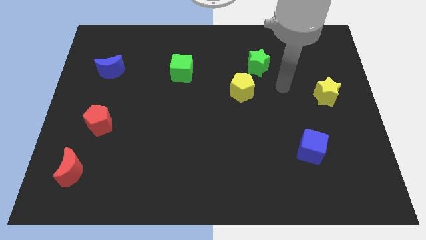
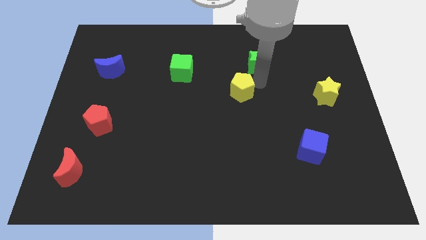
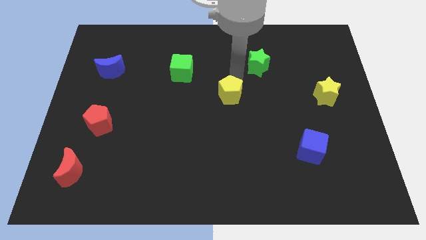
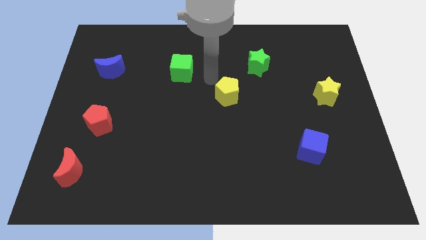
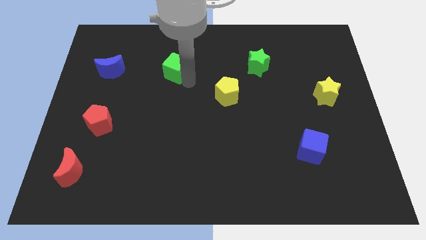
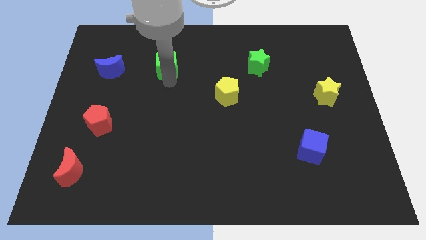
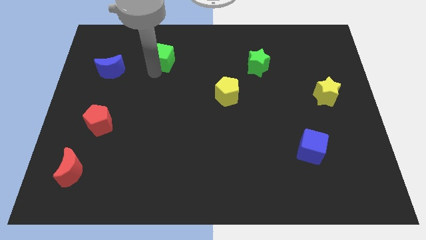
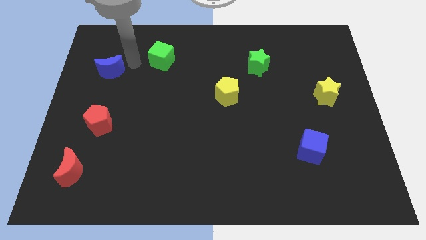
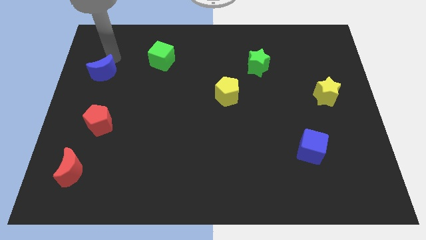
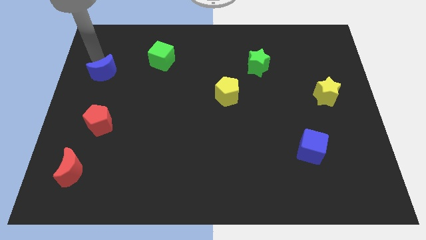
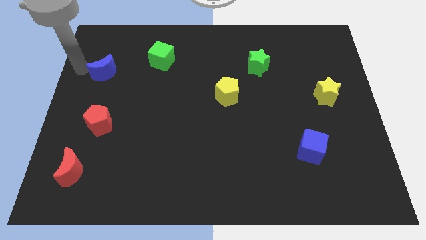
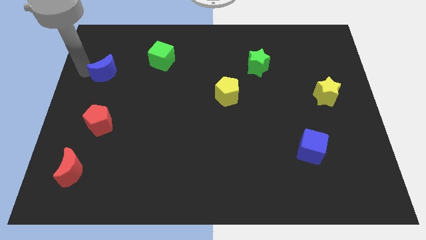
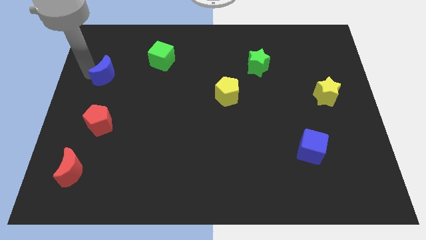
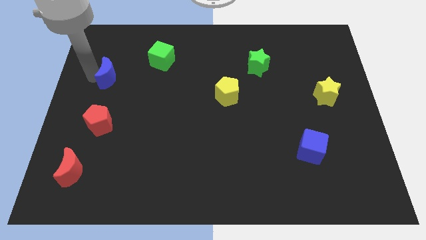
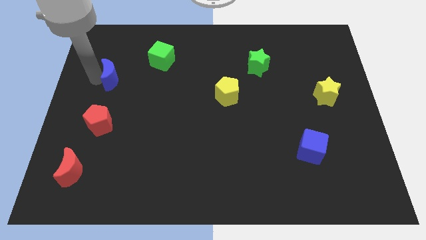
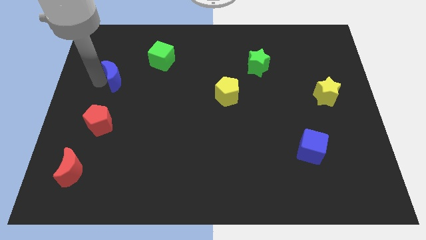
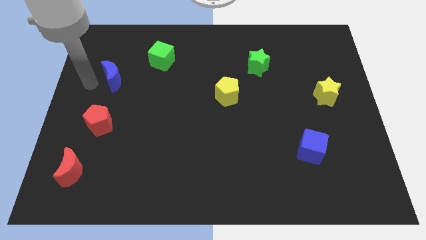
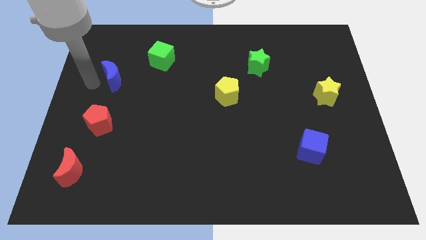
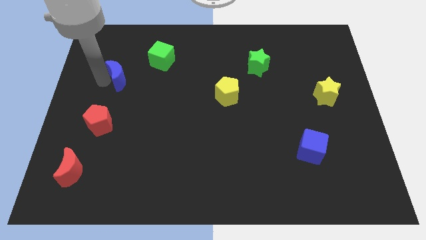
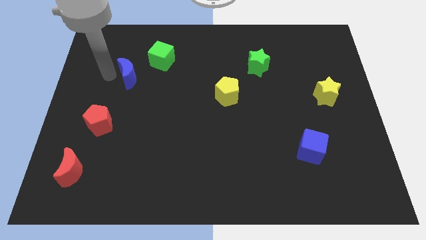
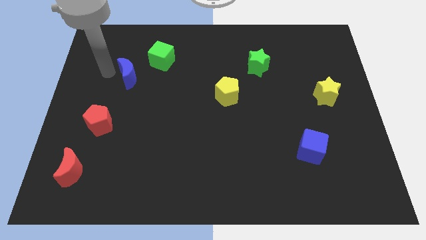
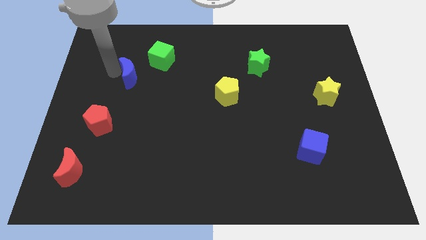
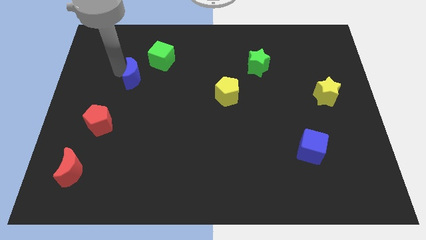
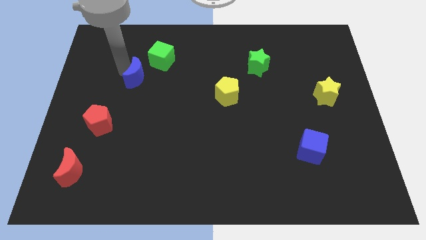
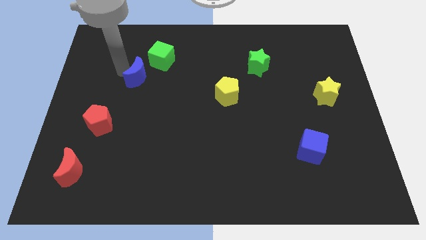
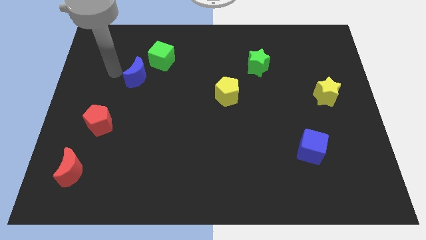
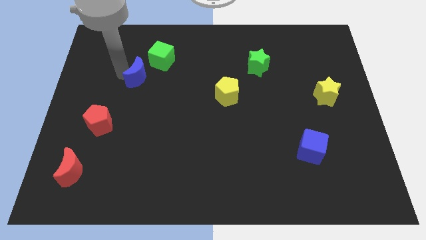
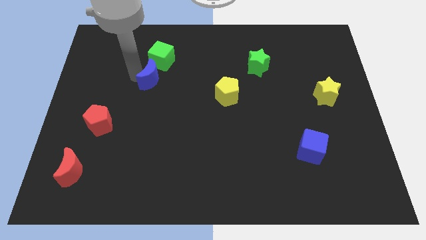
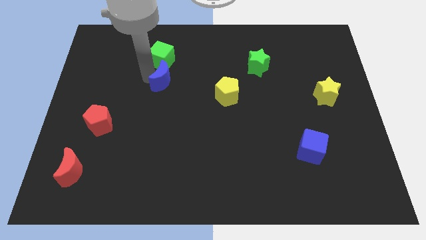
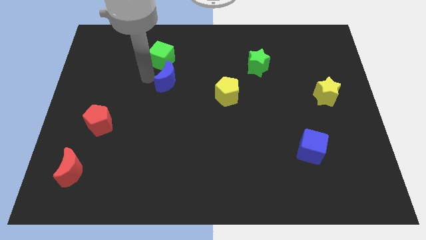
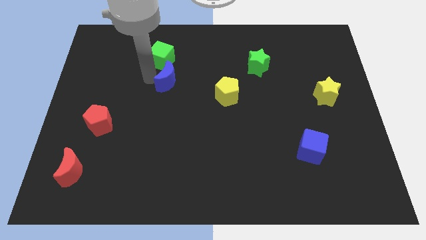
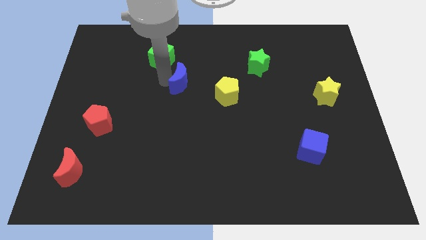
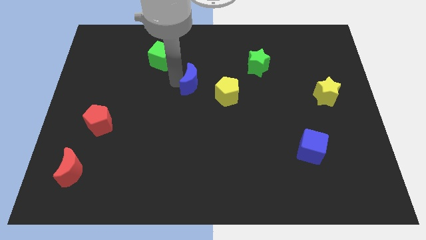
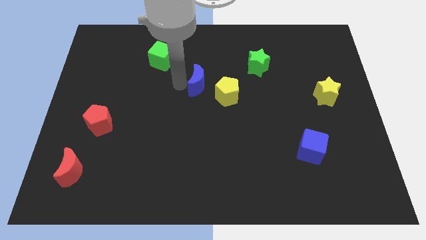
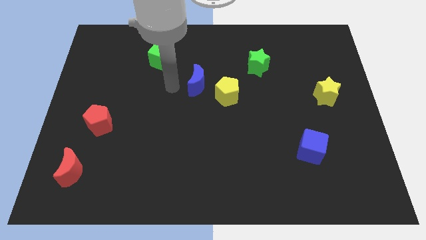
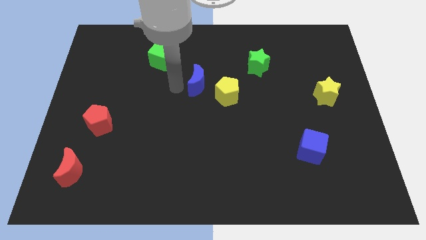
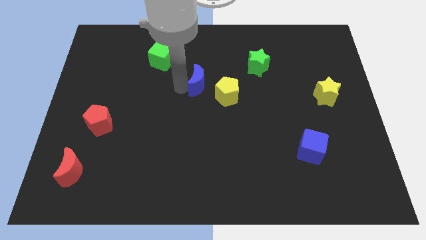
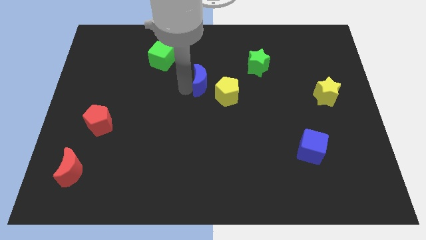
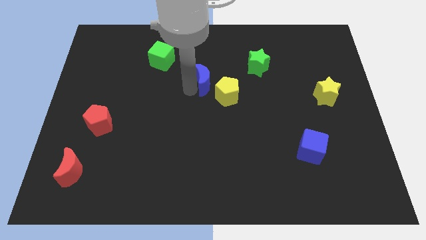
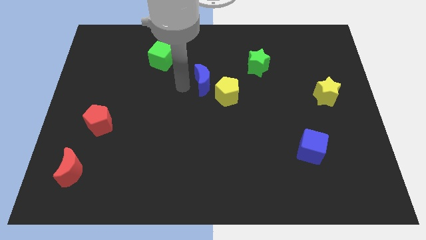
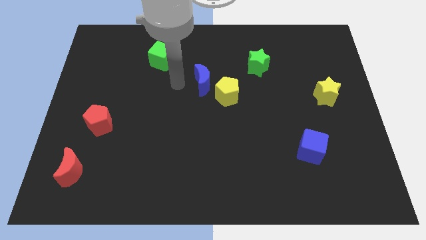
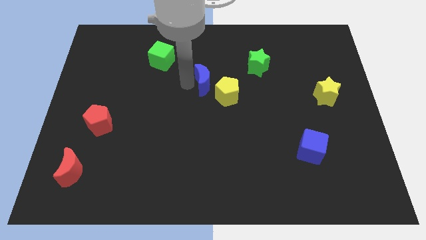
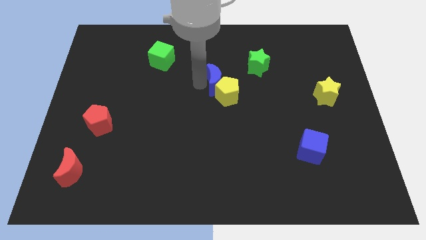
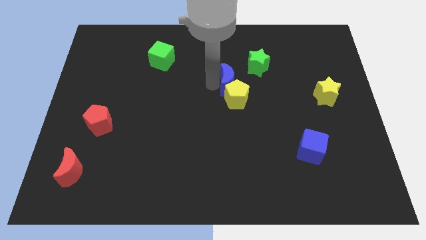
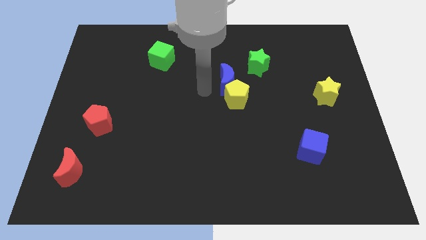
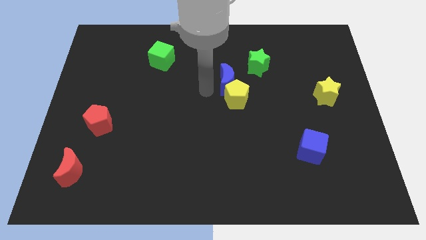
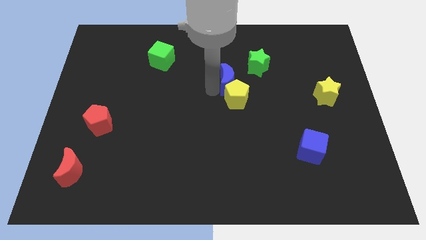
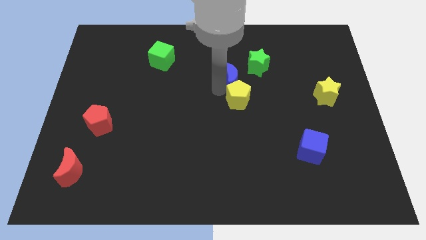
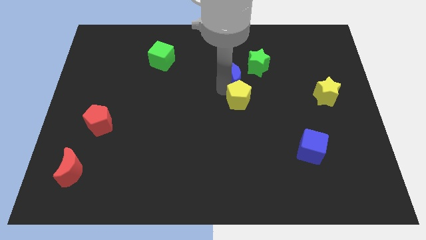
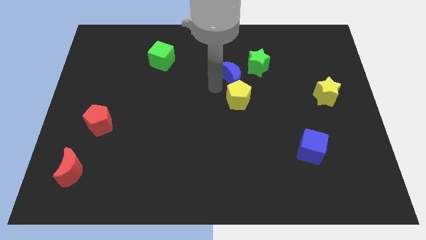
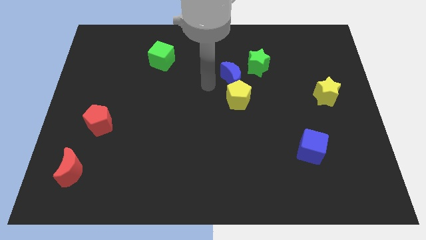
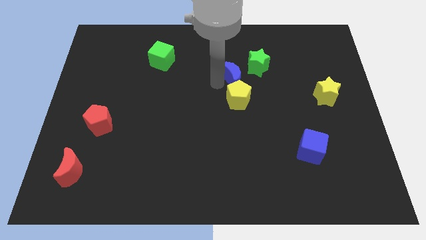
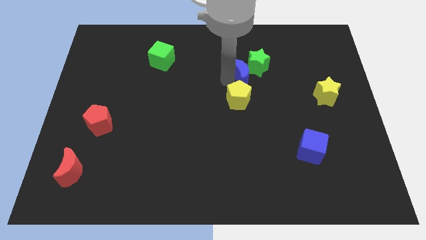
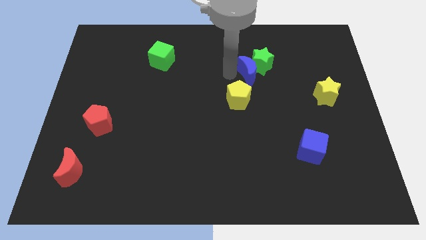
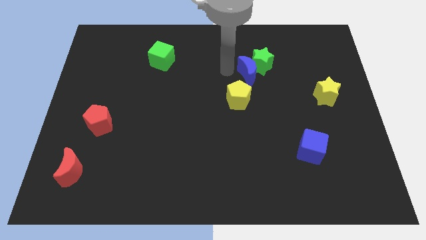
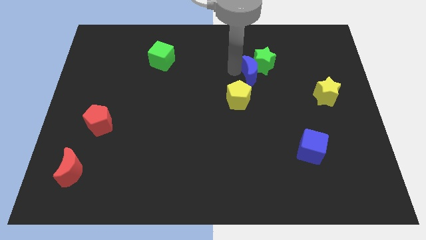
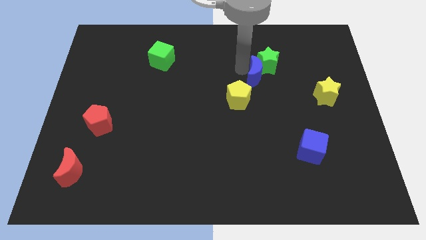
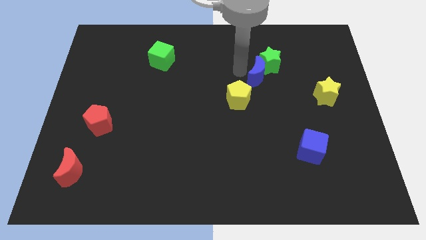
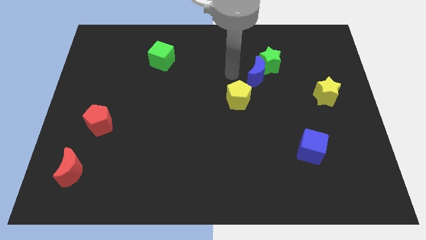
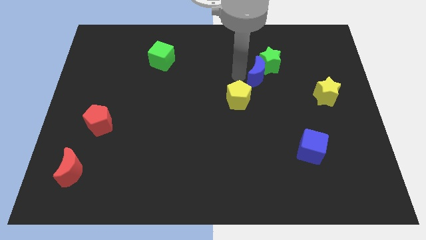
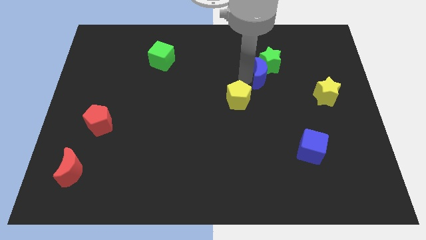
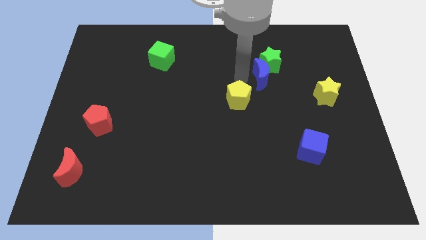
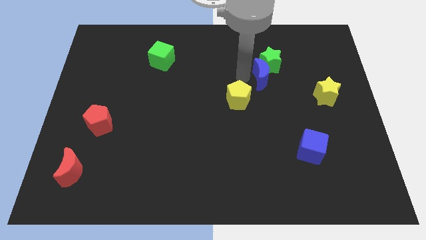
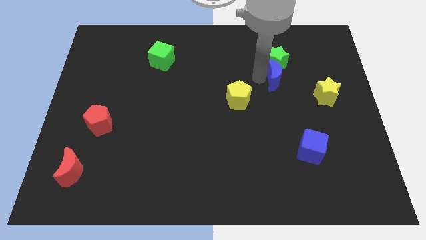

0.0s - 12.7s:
slide the blue moon to the bottom right side of the green star

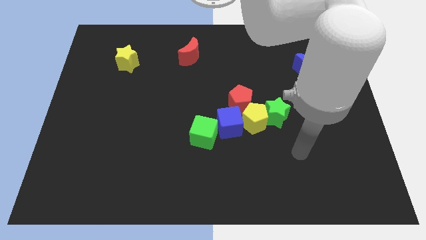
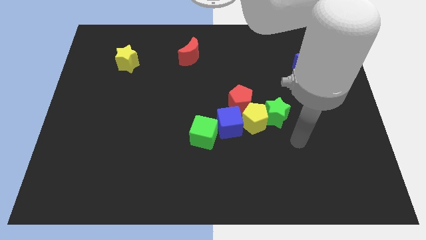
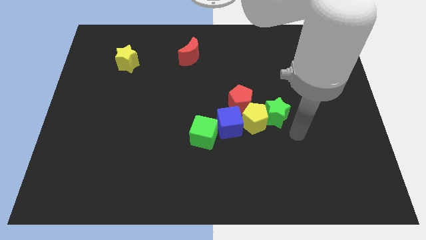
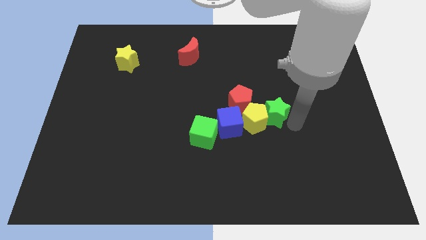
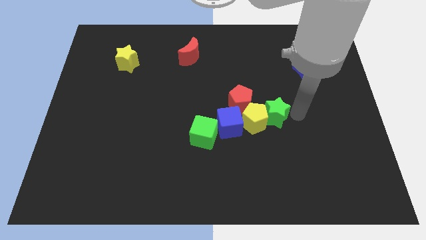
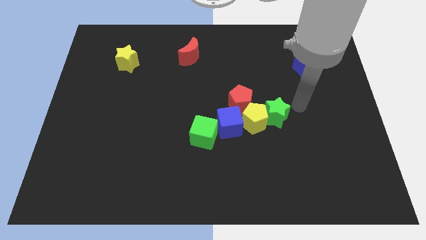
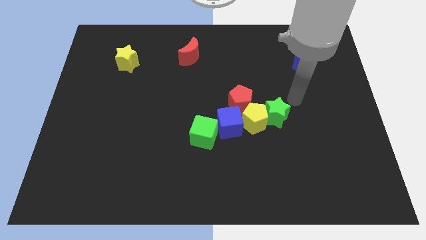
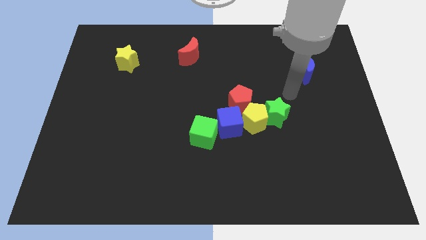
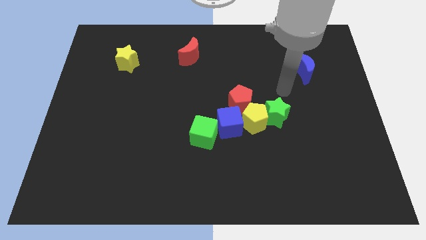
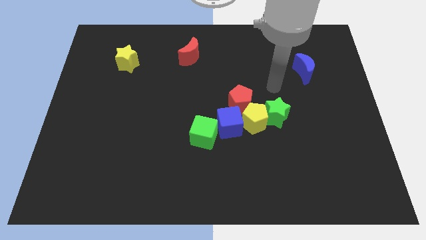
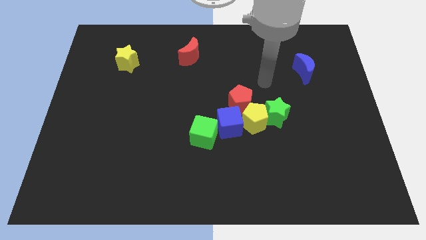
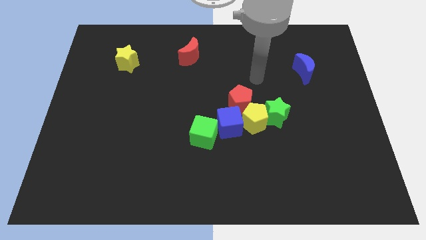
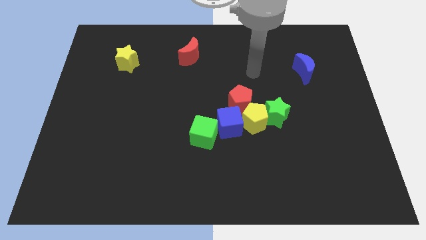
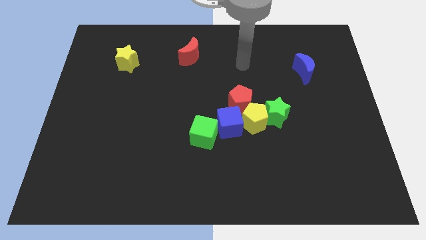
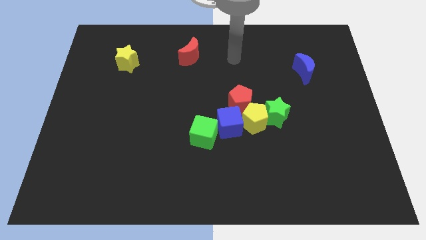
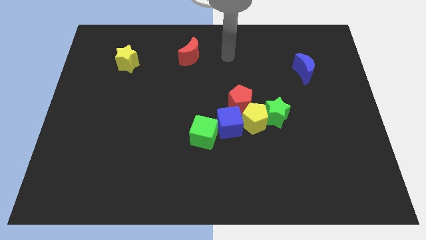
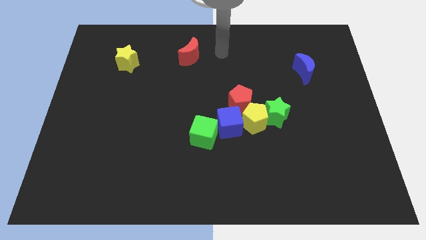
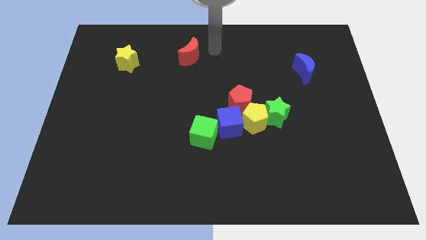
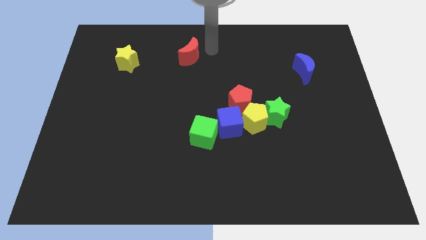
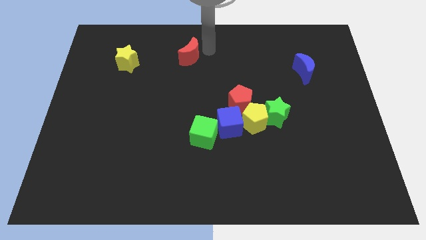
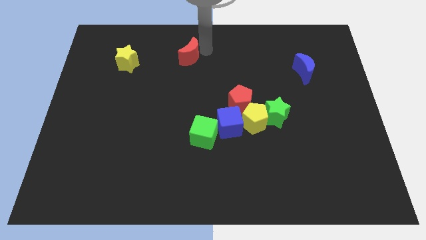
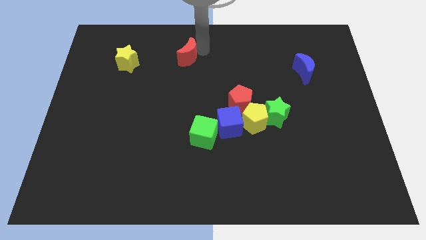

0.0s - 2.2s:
move the red moon to the right side of the yellow star
